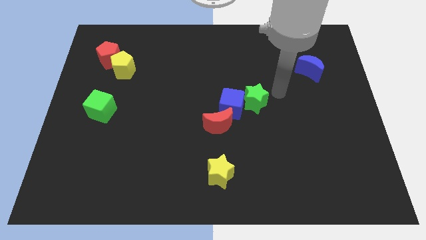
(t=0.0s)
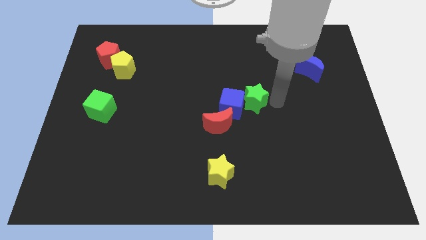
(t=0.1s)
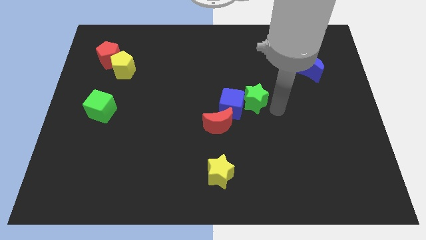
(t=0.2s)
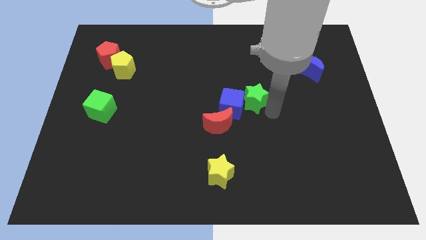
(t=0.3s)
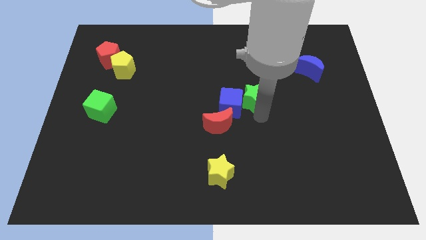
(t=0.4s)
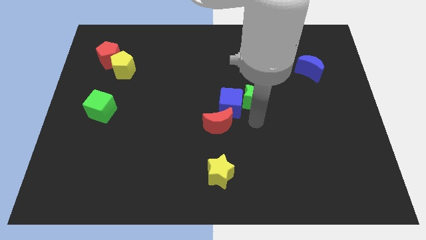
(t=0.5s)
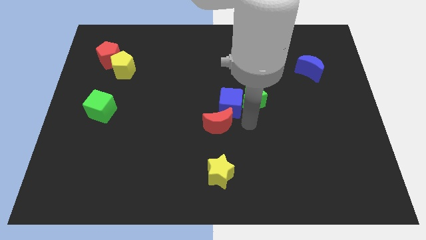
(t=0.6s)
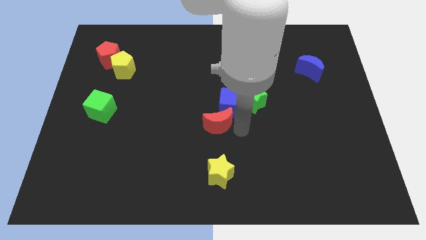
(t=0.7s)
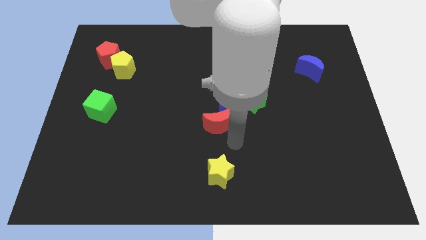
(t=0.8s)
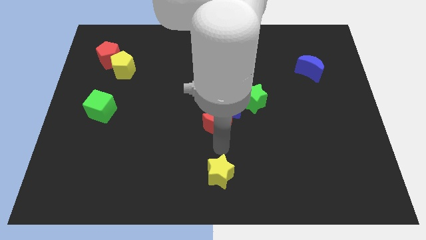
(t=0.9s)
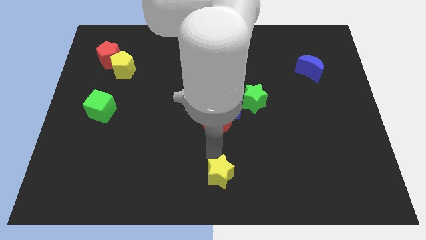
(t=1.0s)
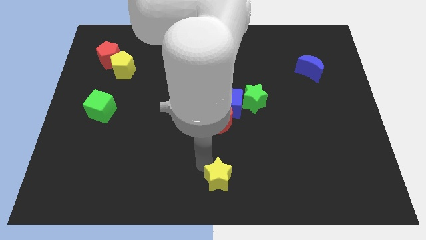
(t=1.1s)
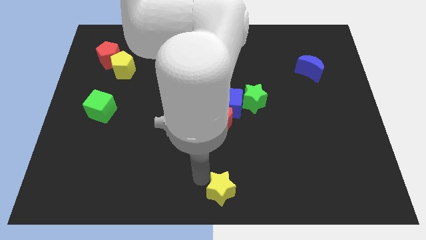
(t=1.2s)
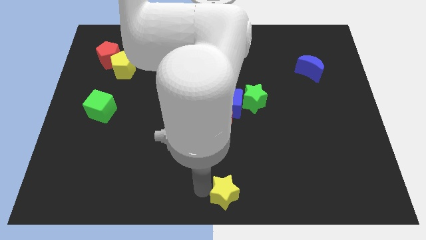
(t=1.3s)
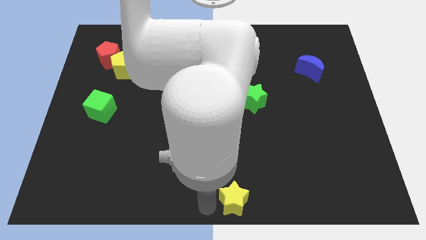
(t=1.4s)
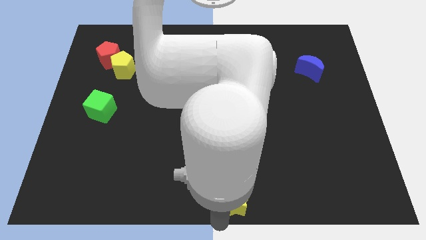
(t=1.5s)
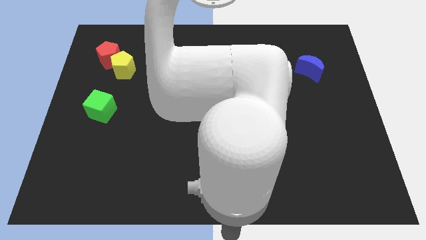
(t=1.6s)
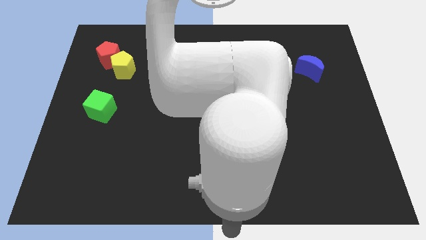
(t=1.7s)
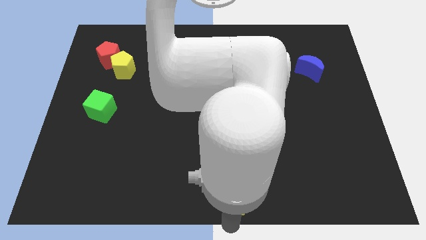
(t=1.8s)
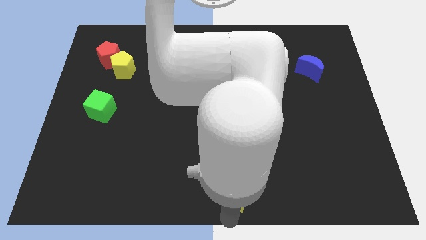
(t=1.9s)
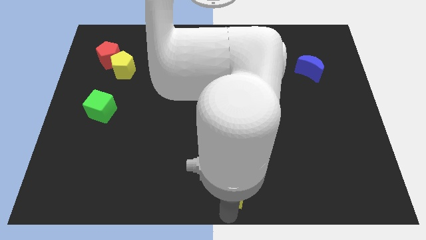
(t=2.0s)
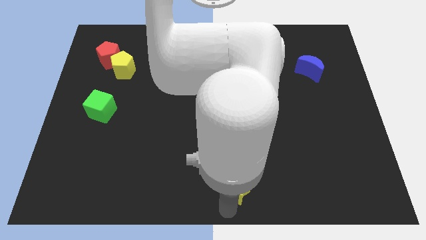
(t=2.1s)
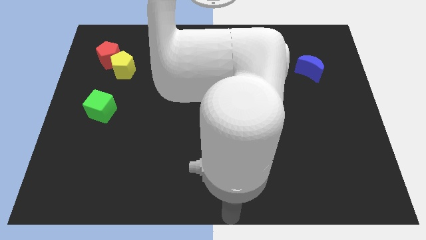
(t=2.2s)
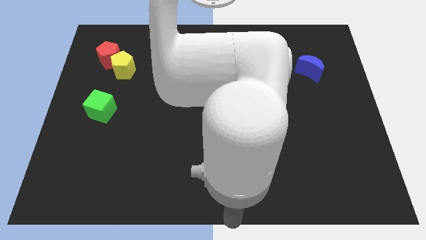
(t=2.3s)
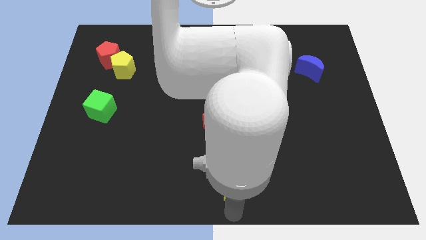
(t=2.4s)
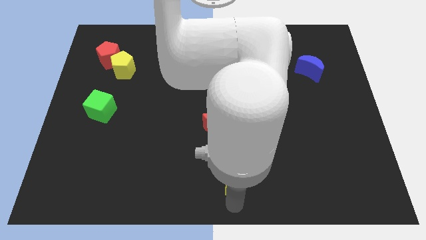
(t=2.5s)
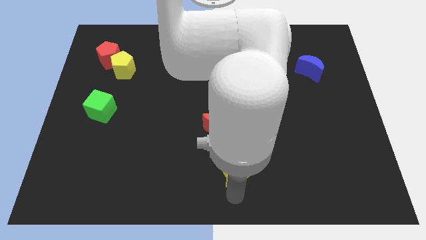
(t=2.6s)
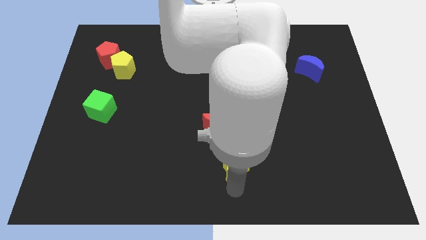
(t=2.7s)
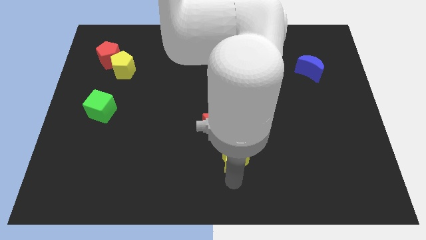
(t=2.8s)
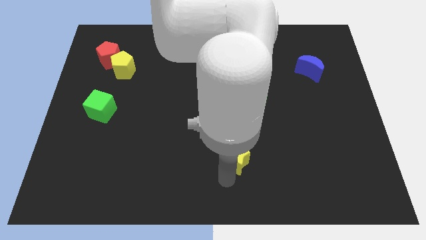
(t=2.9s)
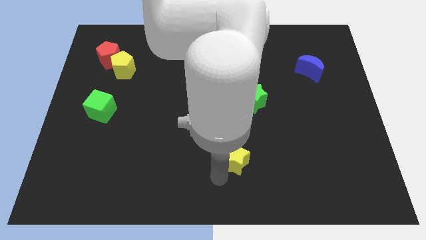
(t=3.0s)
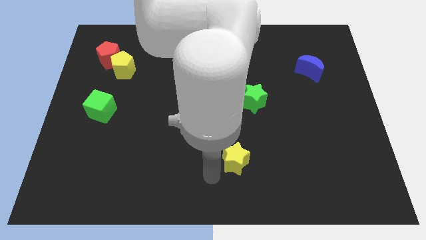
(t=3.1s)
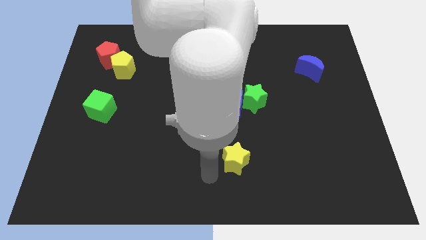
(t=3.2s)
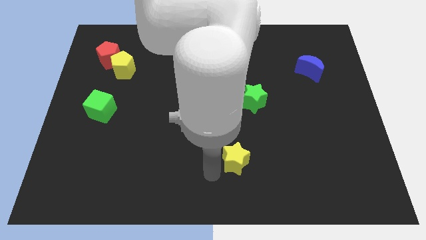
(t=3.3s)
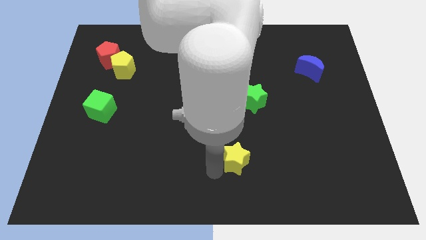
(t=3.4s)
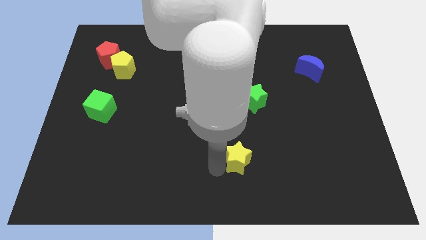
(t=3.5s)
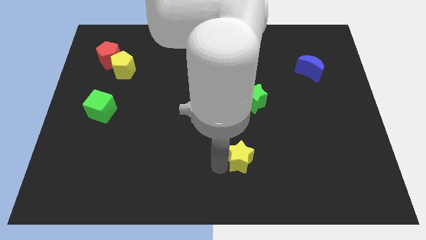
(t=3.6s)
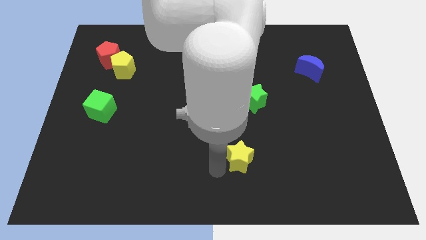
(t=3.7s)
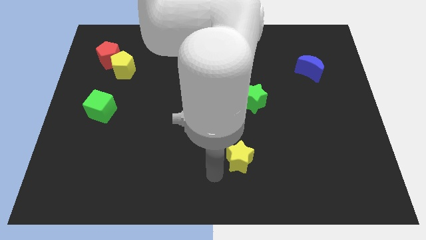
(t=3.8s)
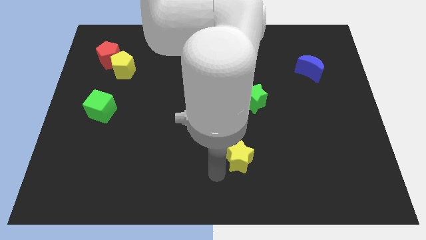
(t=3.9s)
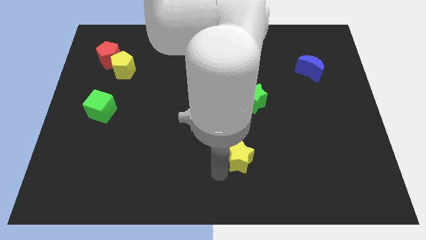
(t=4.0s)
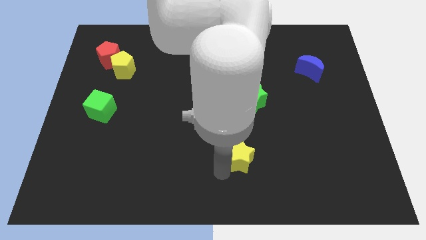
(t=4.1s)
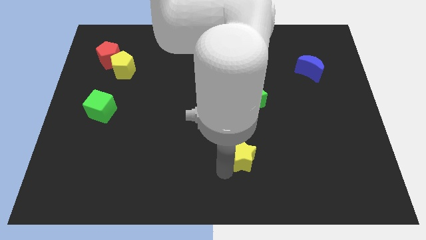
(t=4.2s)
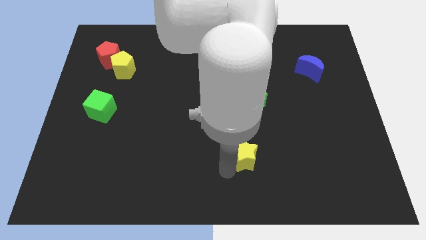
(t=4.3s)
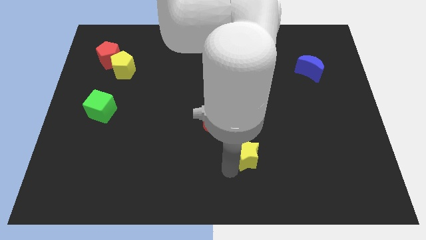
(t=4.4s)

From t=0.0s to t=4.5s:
slide the yellow star upwards and right diagonally somewhat

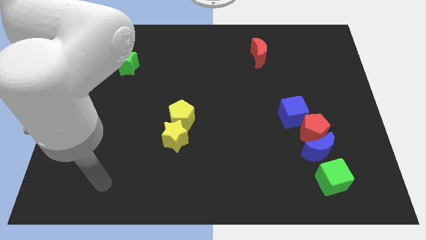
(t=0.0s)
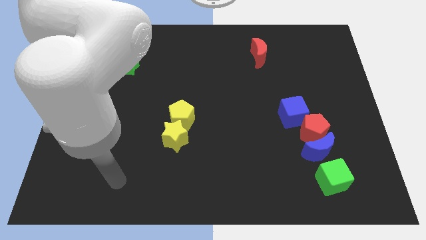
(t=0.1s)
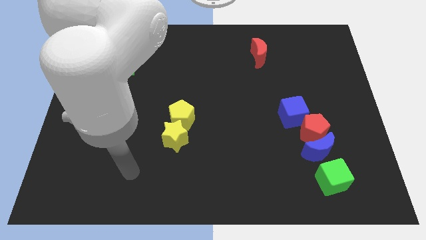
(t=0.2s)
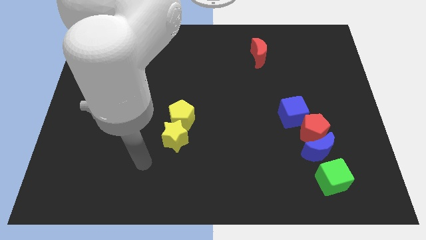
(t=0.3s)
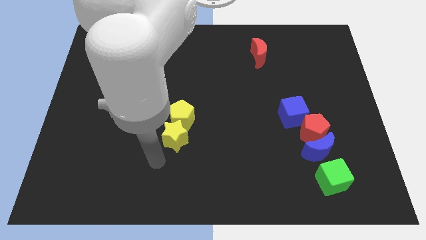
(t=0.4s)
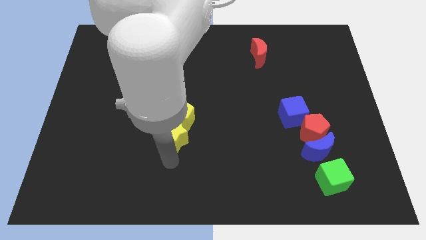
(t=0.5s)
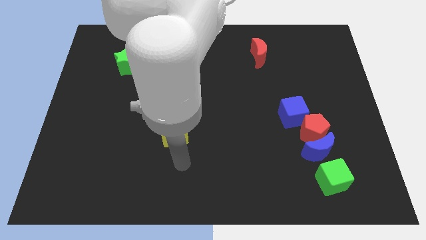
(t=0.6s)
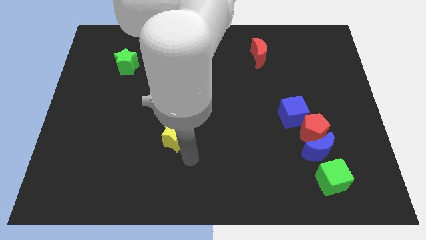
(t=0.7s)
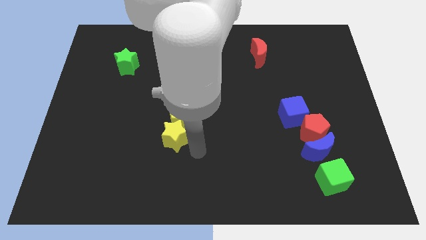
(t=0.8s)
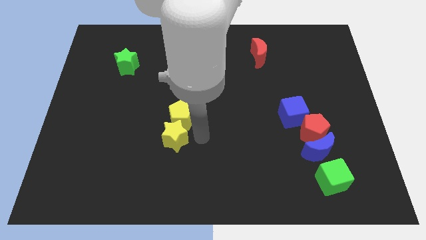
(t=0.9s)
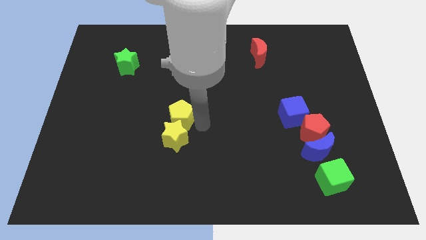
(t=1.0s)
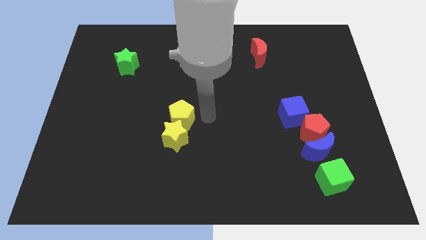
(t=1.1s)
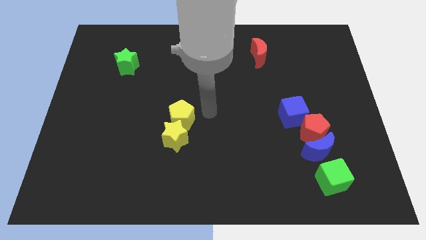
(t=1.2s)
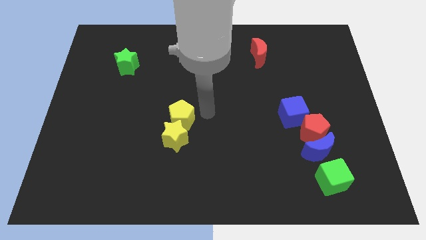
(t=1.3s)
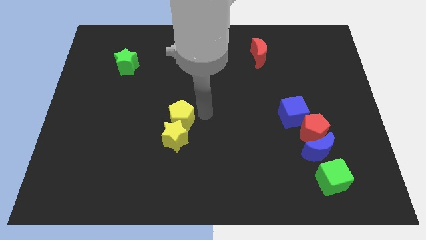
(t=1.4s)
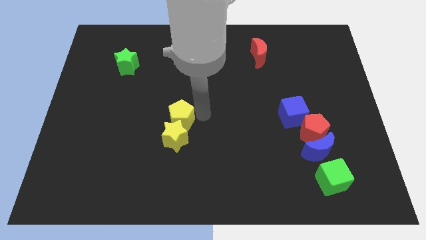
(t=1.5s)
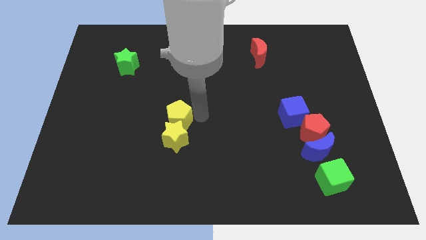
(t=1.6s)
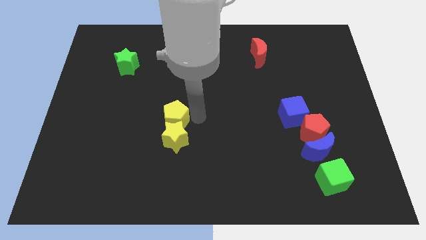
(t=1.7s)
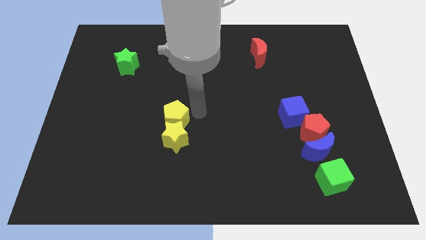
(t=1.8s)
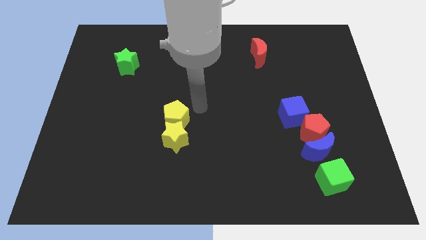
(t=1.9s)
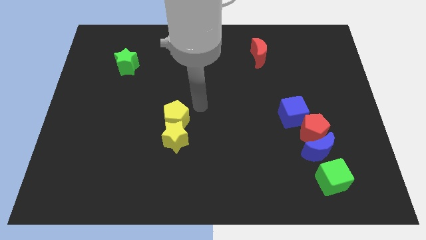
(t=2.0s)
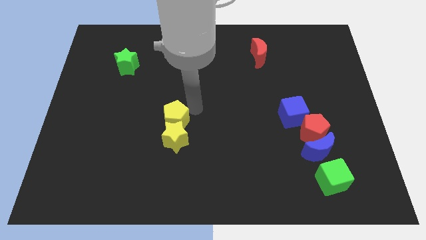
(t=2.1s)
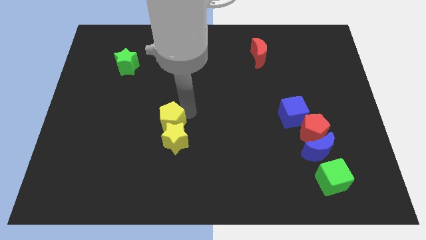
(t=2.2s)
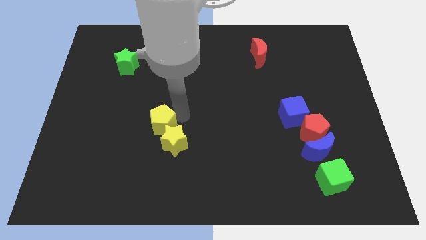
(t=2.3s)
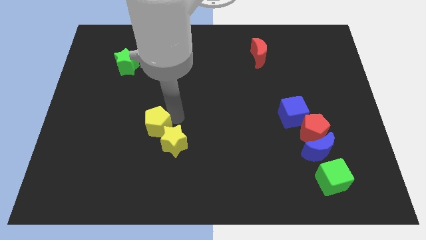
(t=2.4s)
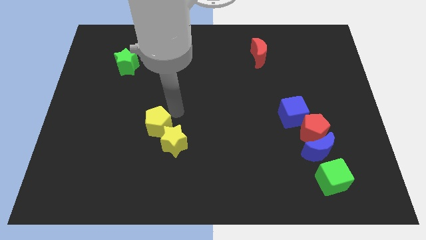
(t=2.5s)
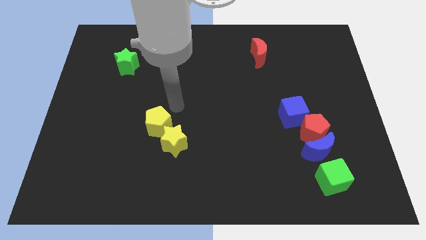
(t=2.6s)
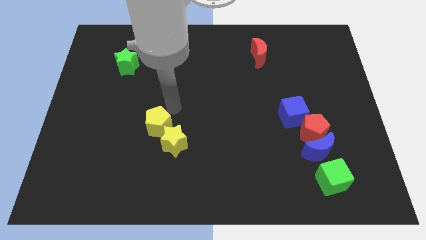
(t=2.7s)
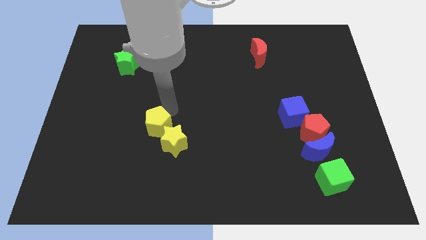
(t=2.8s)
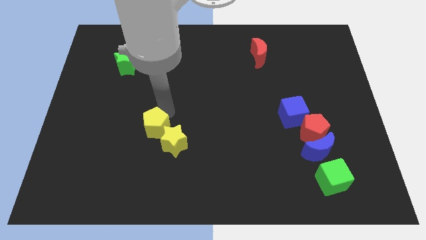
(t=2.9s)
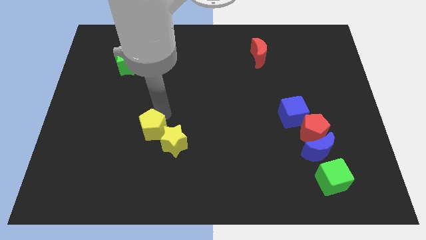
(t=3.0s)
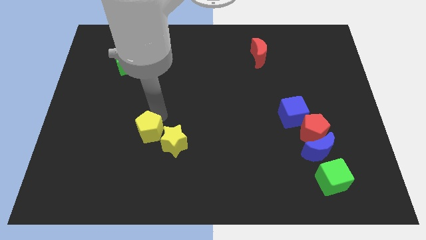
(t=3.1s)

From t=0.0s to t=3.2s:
move the yellow pentagon downwards and left diagonally a little bit

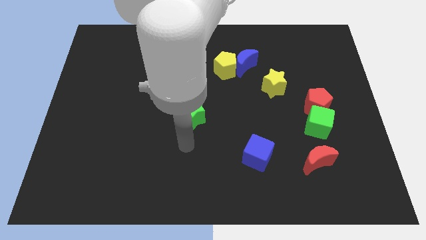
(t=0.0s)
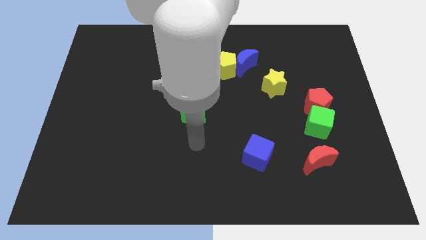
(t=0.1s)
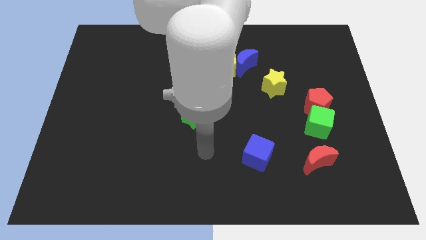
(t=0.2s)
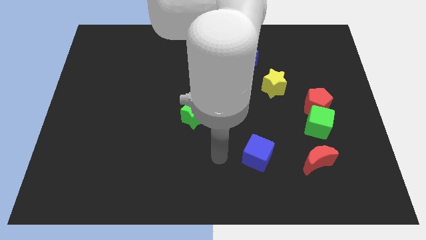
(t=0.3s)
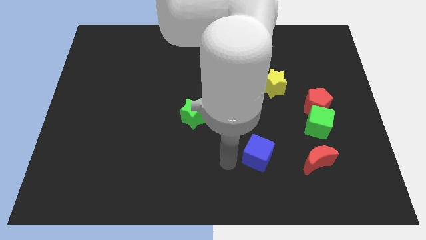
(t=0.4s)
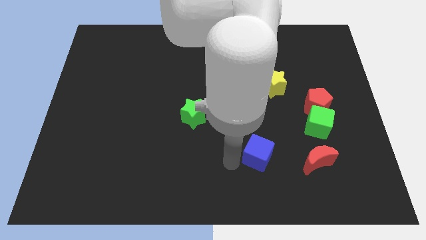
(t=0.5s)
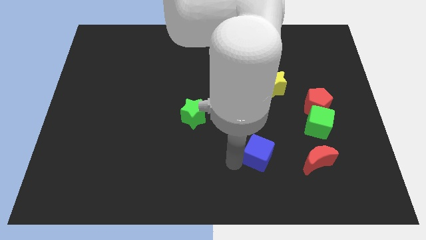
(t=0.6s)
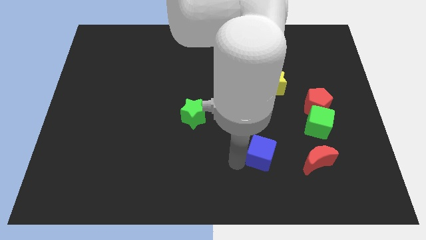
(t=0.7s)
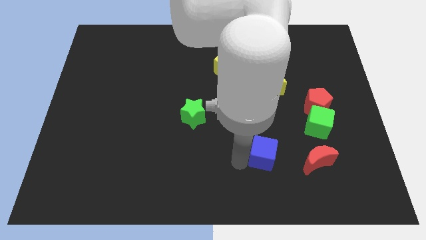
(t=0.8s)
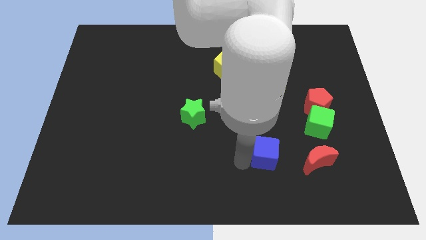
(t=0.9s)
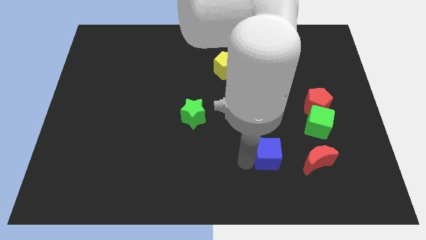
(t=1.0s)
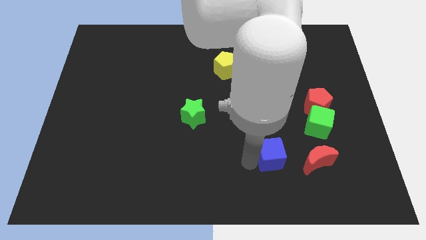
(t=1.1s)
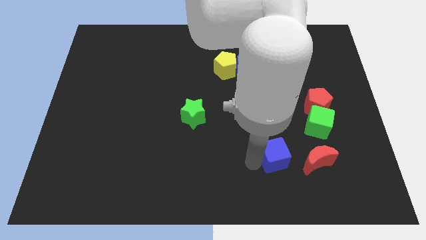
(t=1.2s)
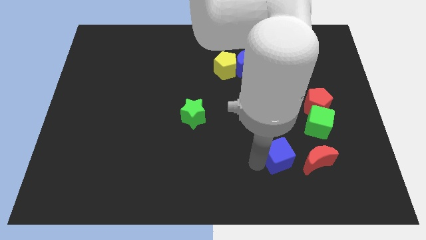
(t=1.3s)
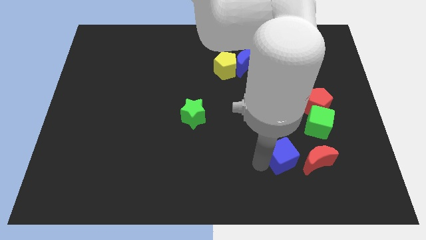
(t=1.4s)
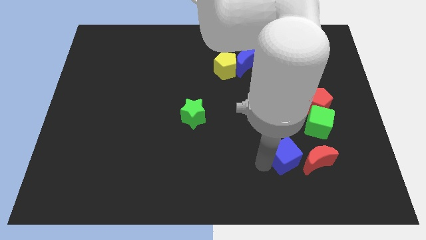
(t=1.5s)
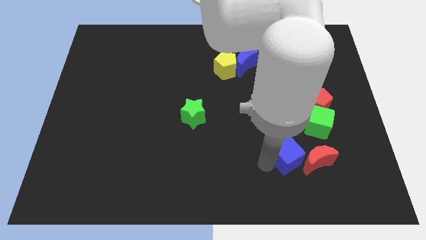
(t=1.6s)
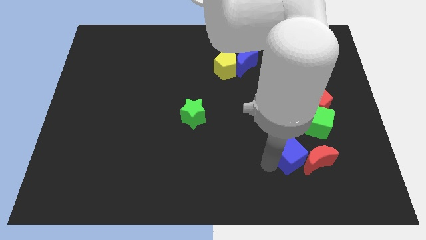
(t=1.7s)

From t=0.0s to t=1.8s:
move the blue cube right somewhat
